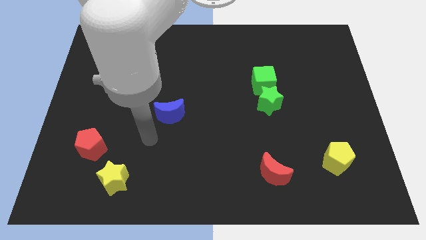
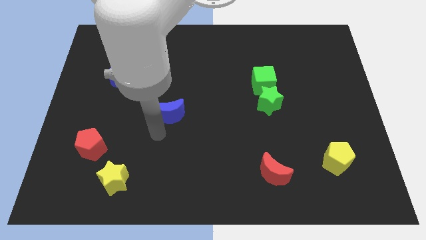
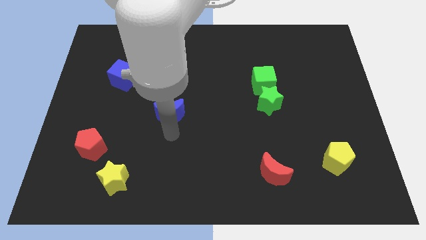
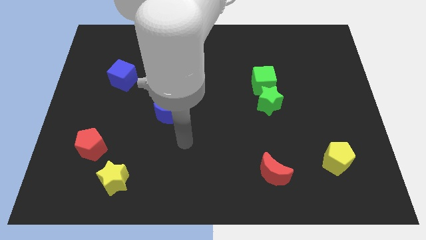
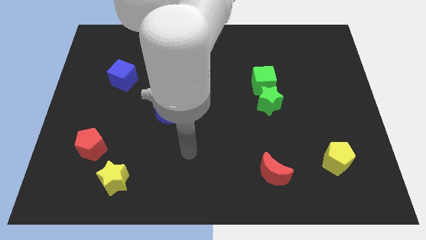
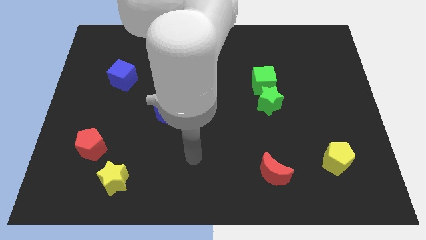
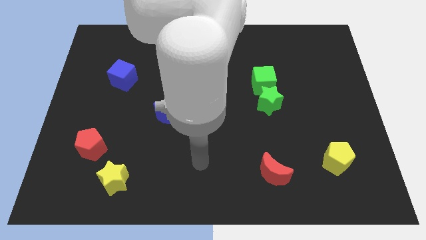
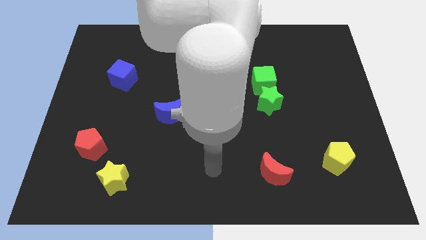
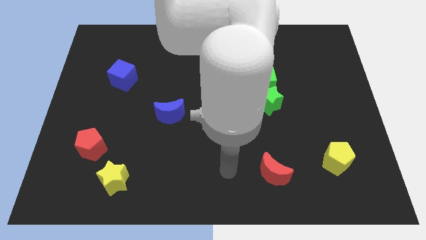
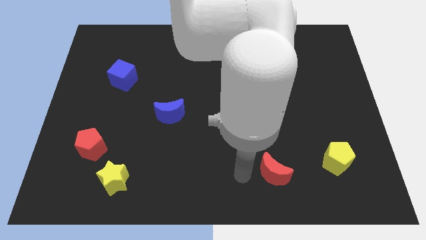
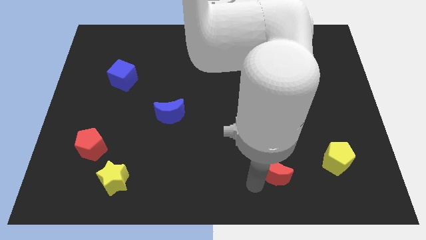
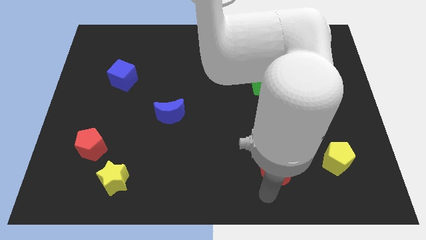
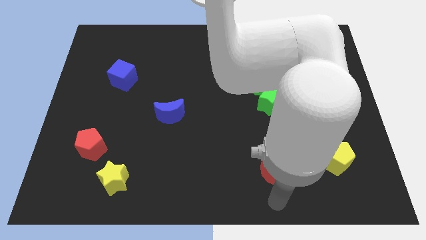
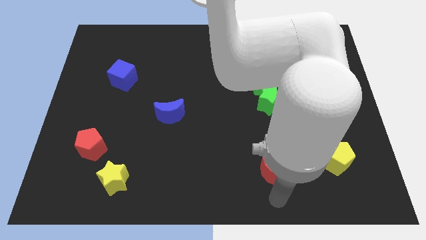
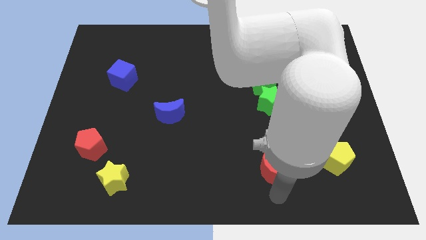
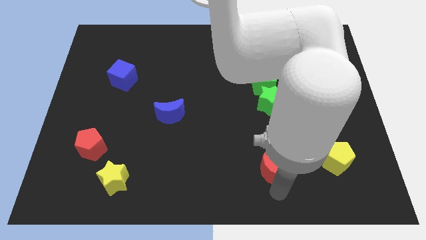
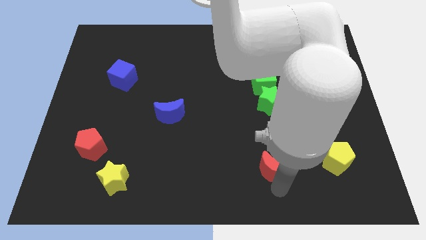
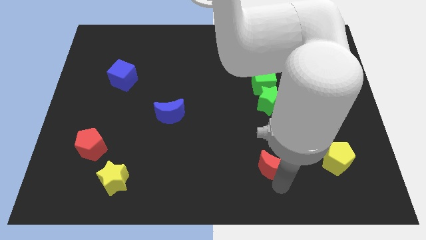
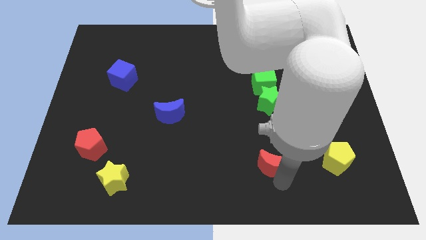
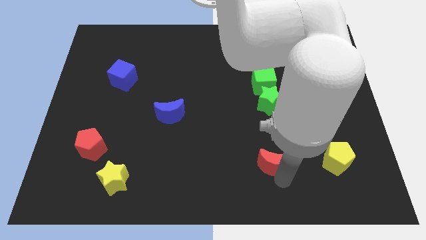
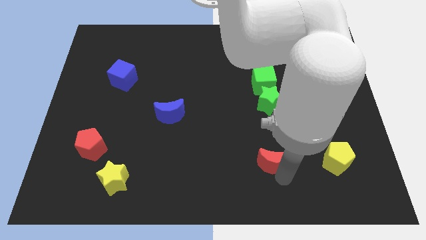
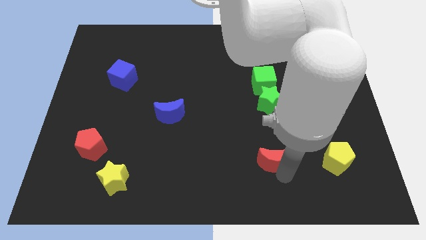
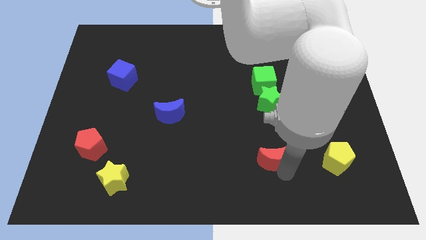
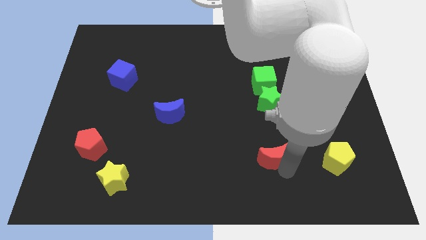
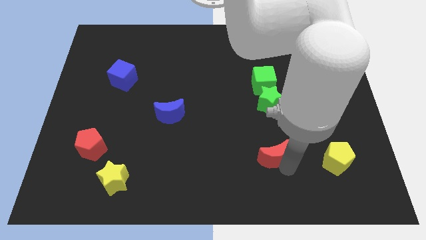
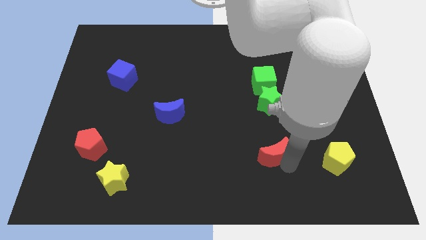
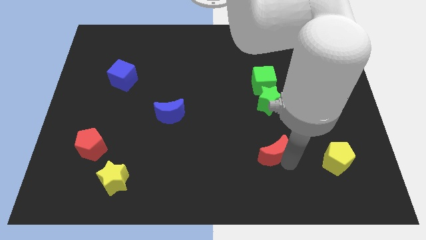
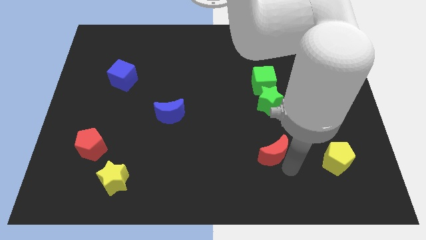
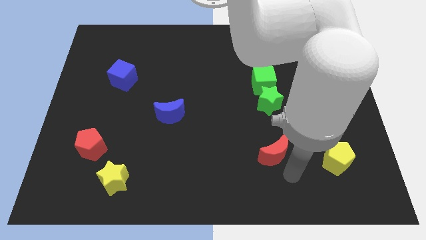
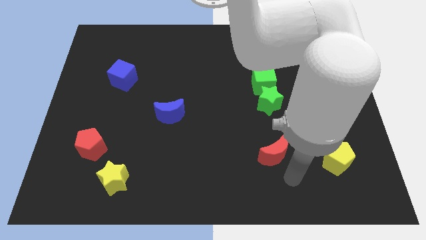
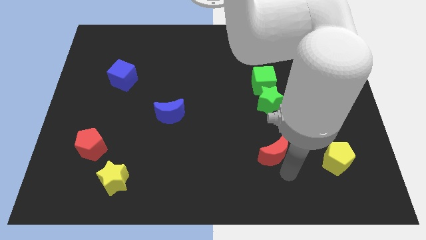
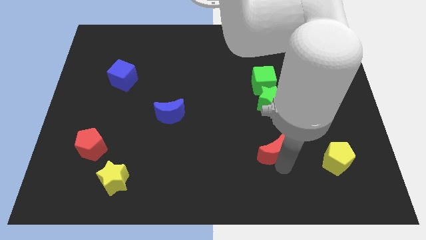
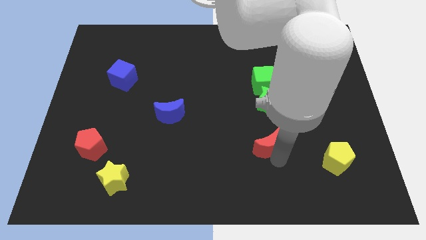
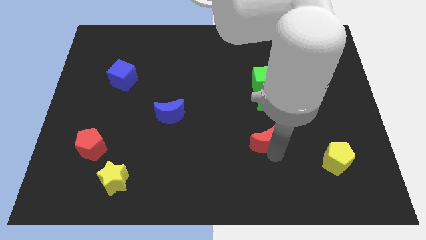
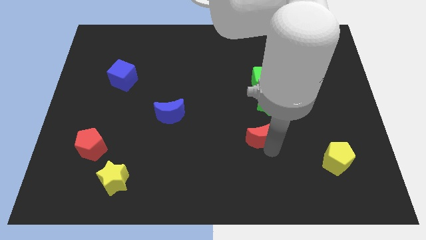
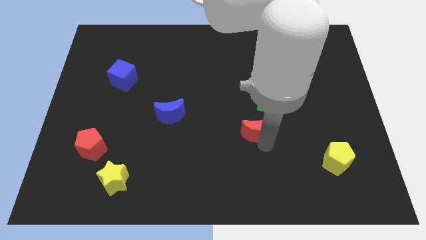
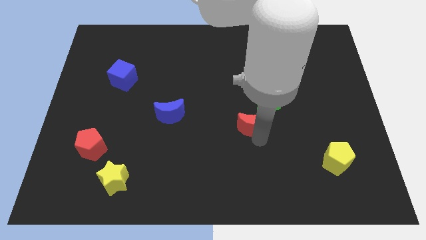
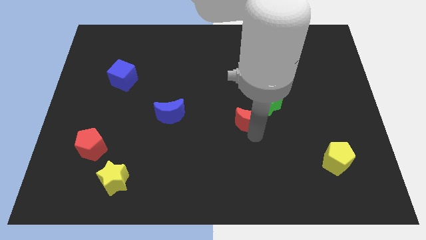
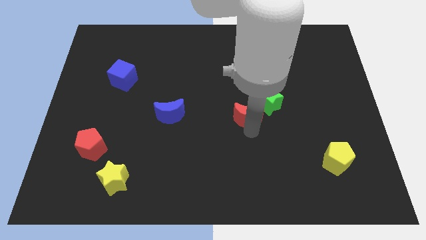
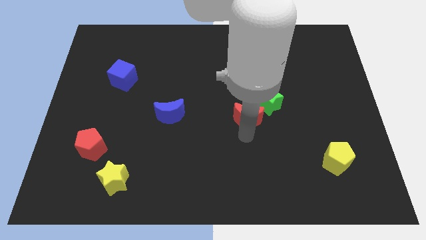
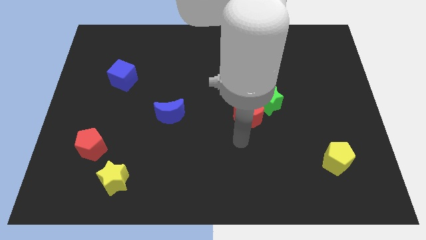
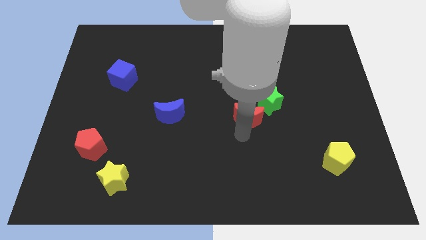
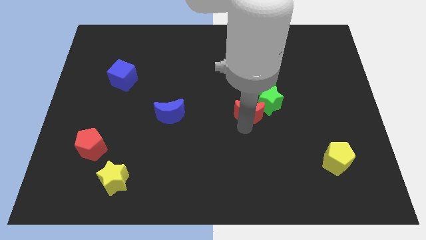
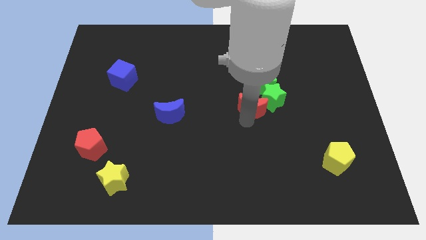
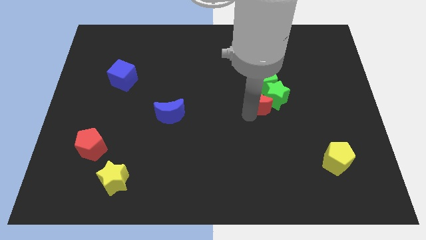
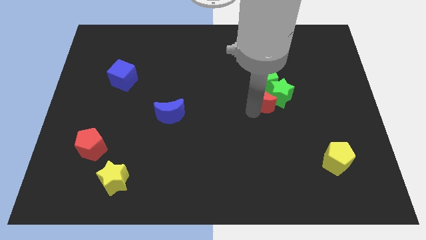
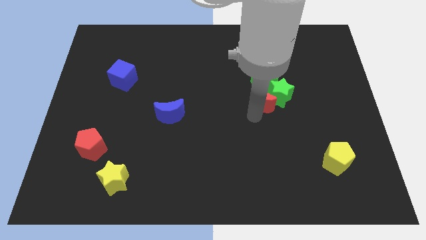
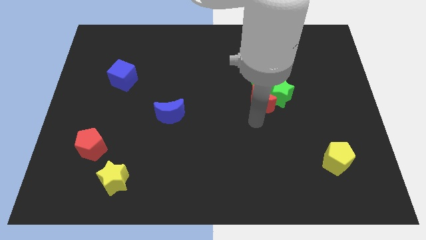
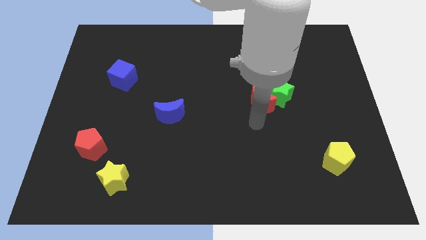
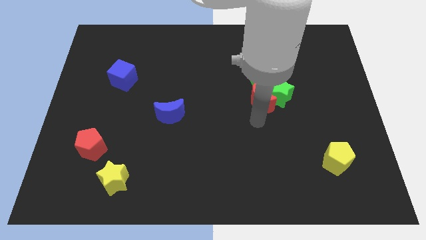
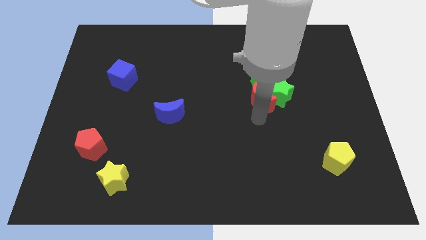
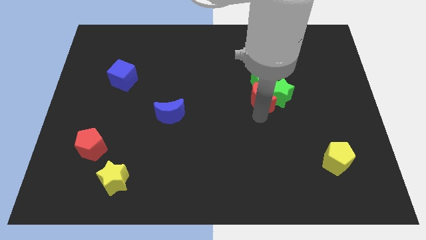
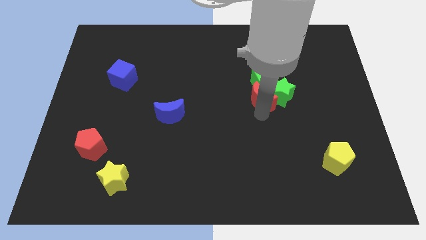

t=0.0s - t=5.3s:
push the red moon to the green cube

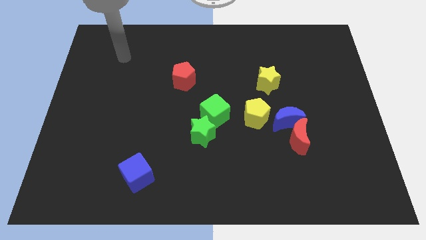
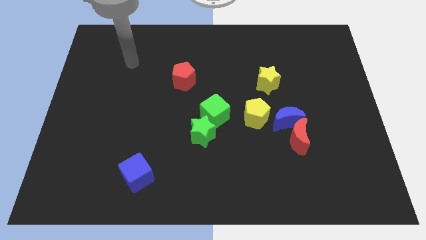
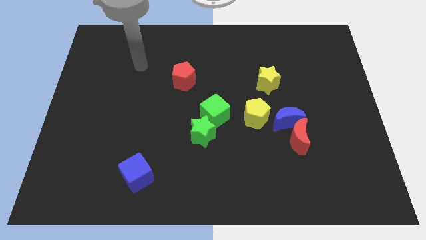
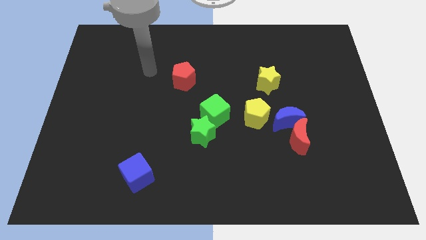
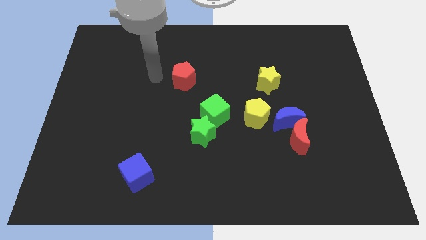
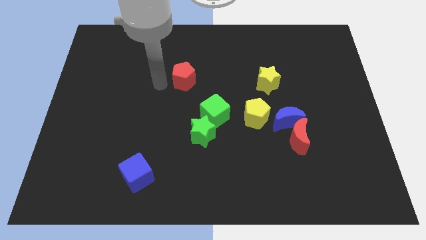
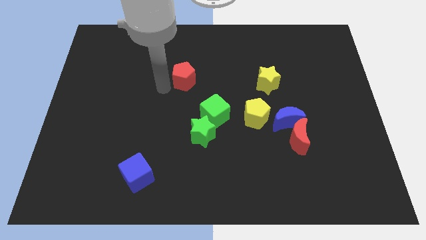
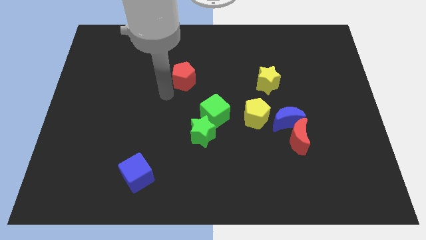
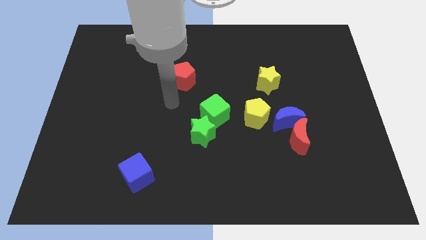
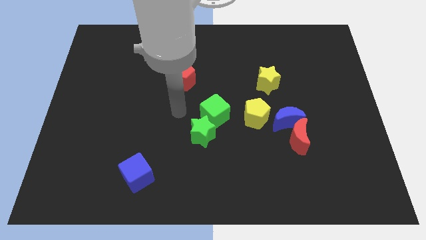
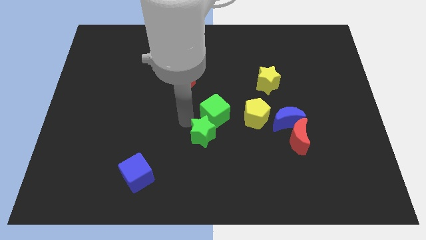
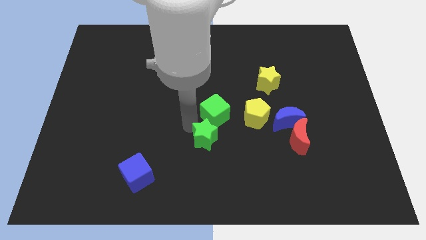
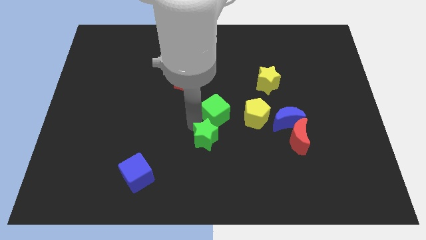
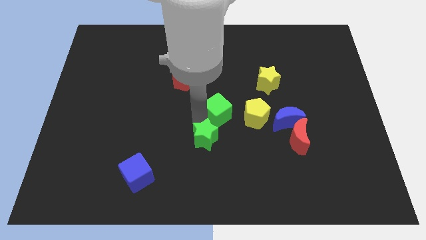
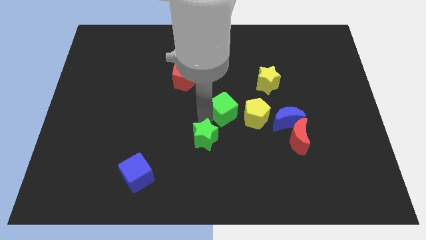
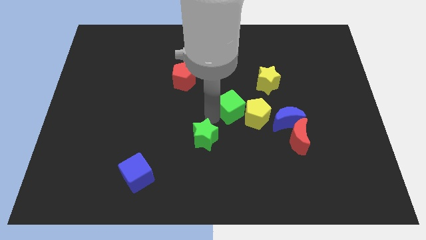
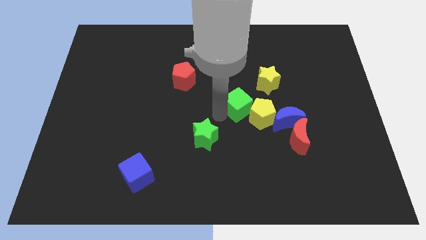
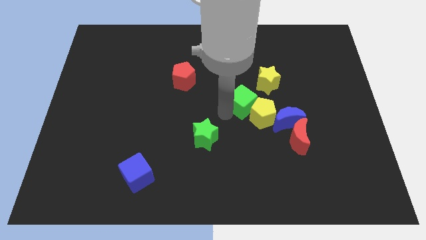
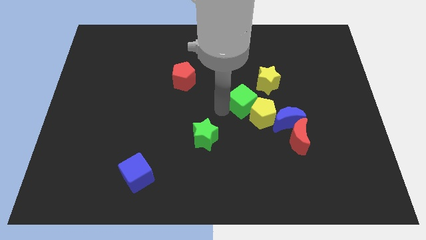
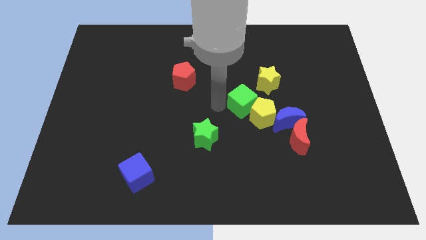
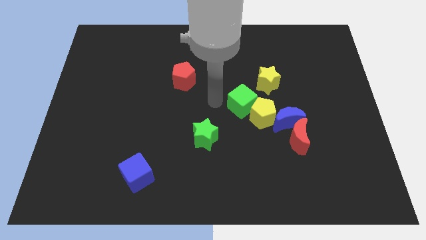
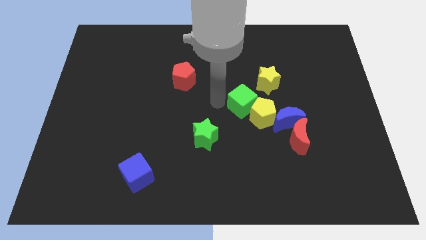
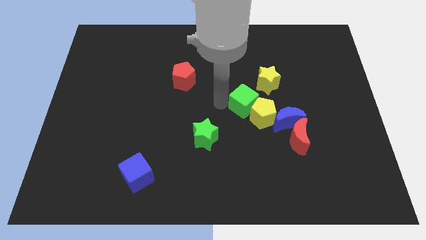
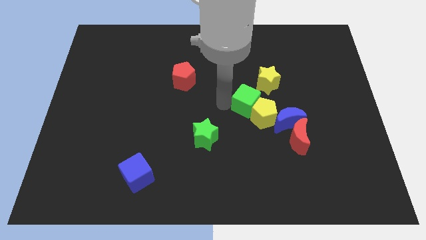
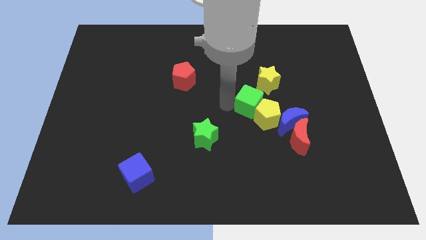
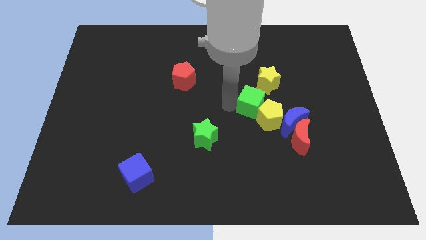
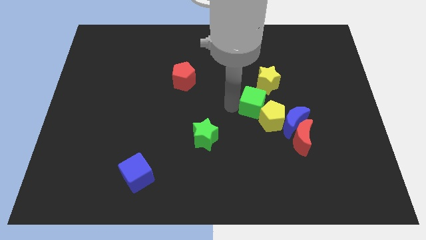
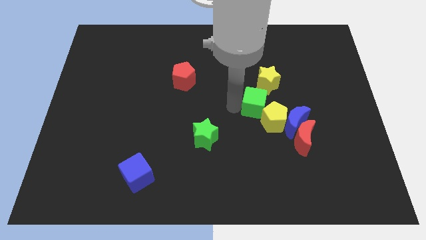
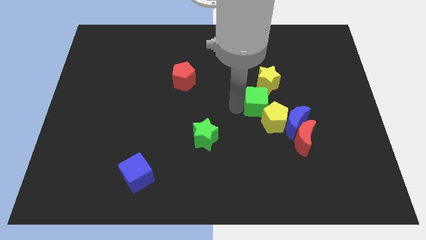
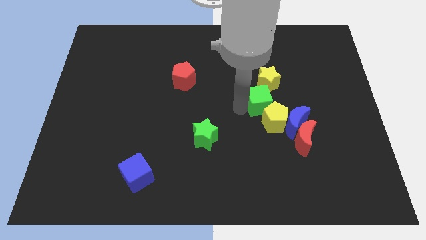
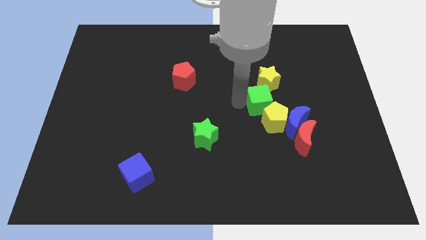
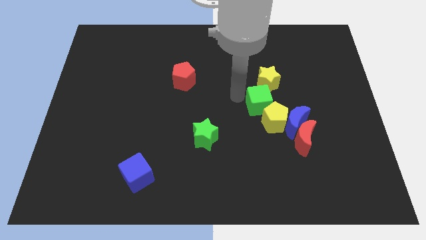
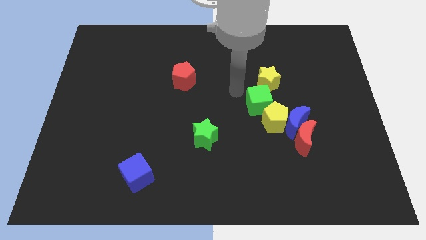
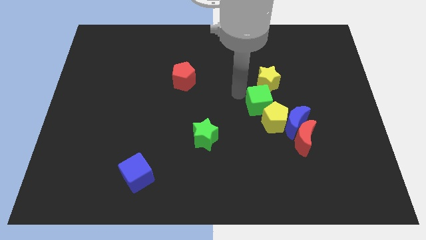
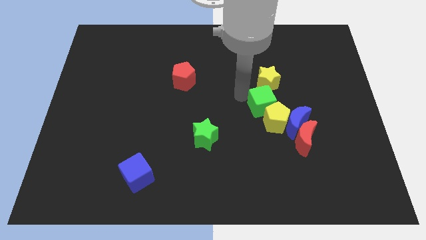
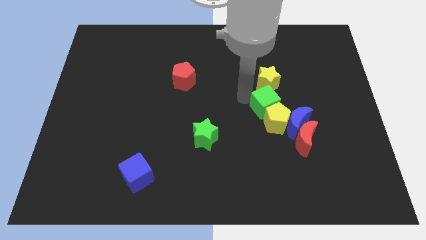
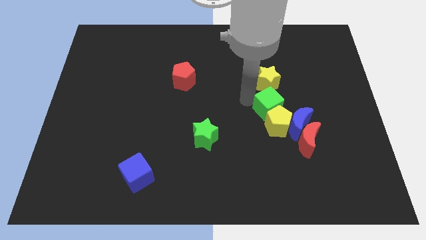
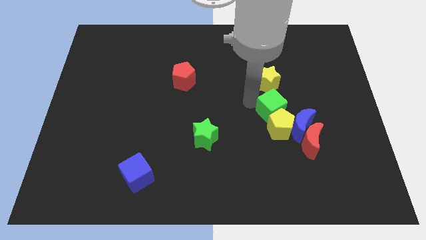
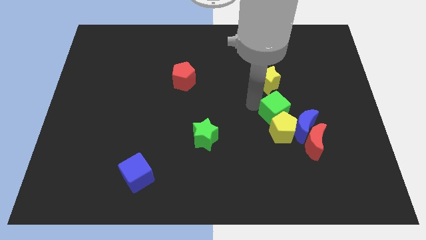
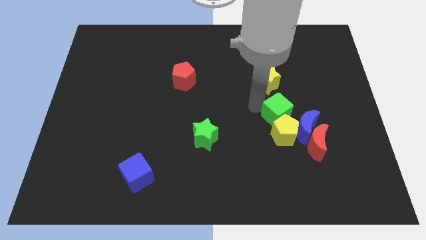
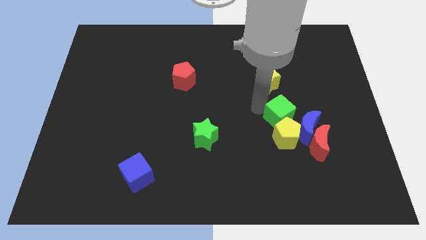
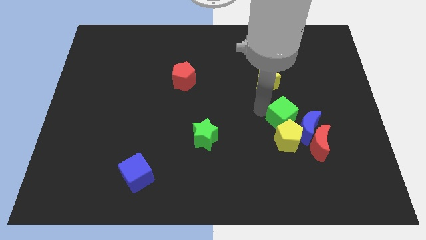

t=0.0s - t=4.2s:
push the green cube to the blue moon
